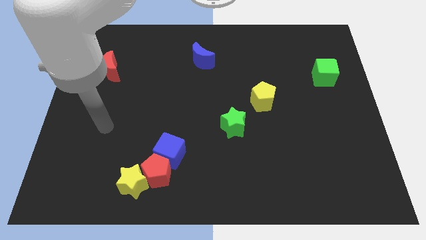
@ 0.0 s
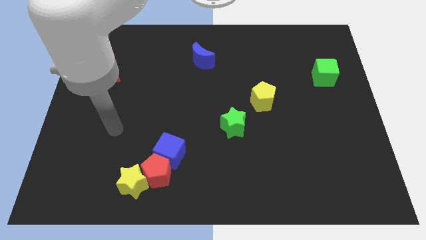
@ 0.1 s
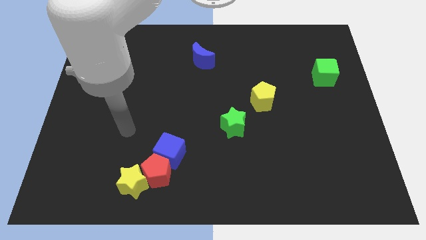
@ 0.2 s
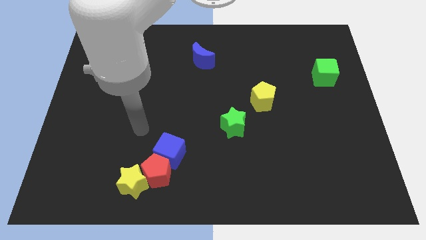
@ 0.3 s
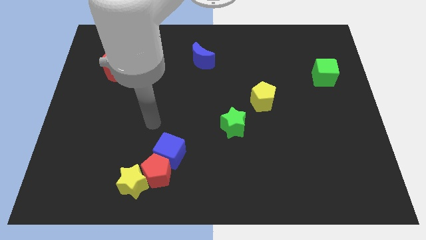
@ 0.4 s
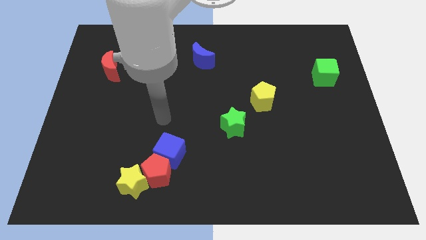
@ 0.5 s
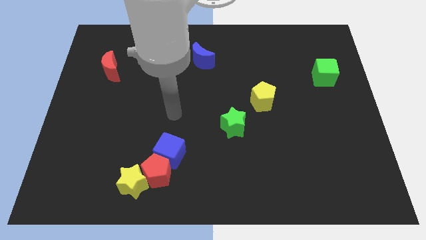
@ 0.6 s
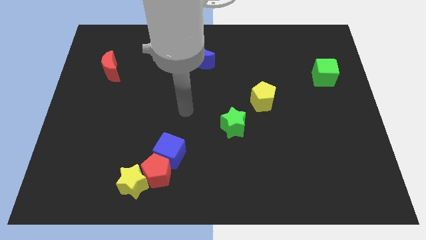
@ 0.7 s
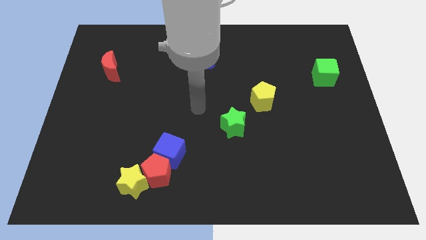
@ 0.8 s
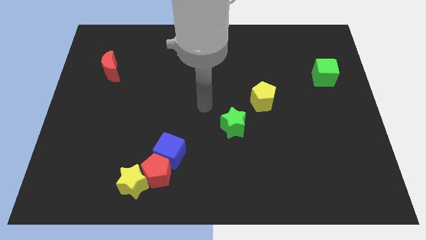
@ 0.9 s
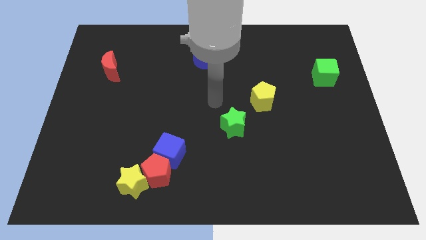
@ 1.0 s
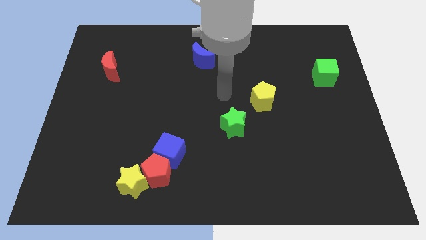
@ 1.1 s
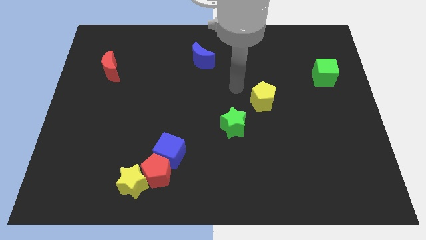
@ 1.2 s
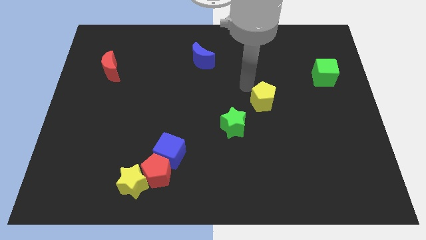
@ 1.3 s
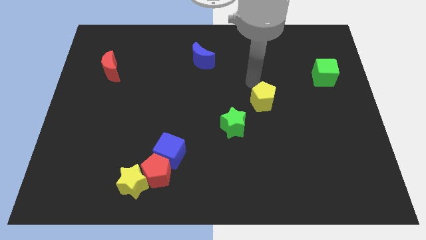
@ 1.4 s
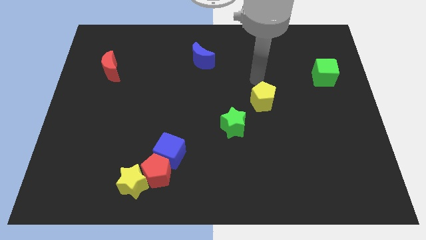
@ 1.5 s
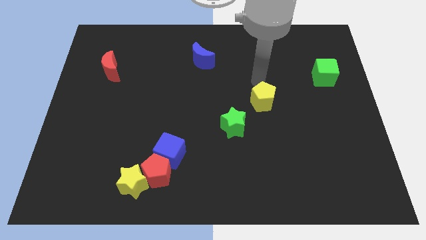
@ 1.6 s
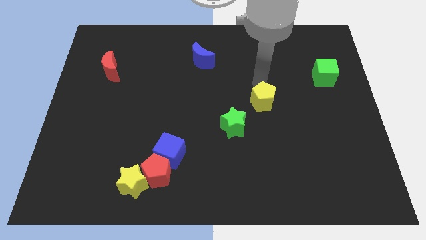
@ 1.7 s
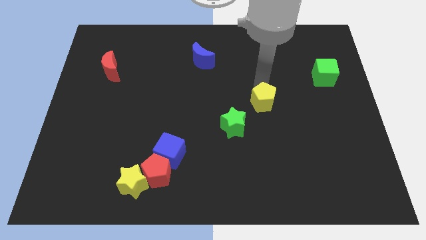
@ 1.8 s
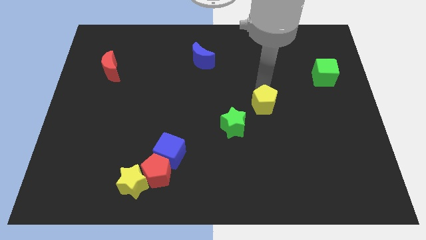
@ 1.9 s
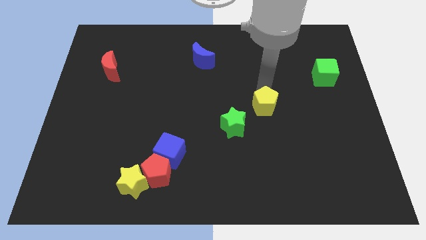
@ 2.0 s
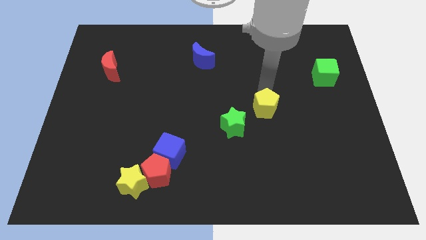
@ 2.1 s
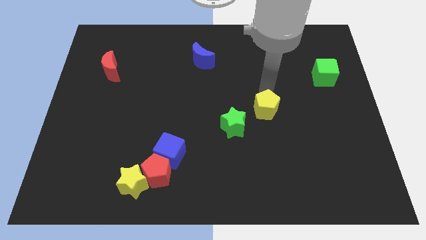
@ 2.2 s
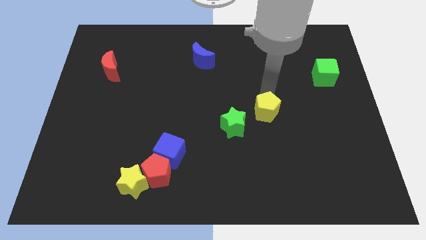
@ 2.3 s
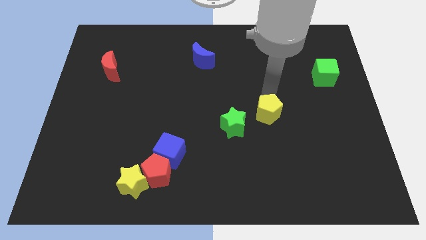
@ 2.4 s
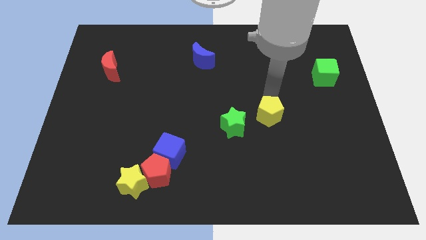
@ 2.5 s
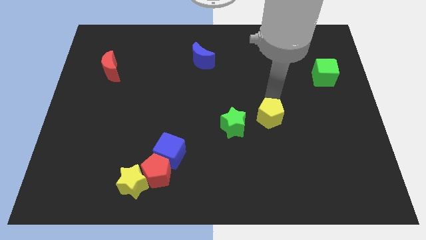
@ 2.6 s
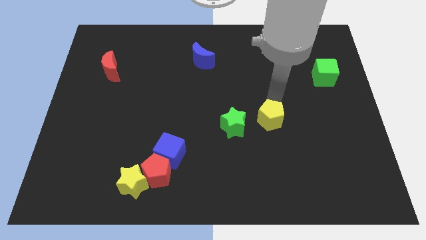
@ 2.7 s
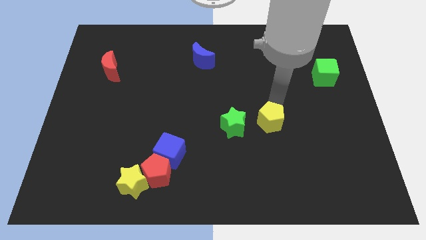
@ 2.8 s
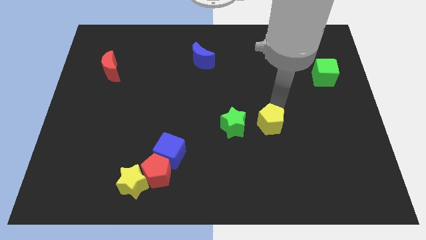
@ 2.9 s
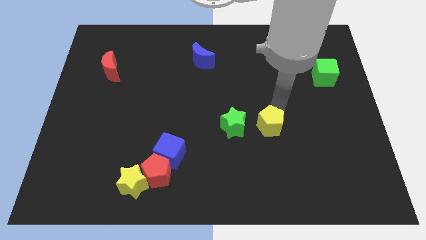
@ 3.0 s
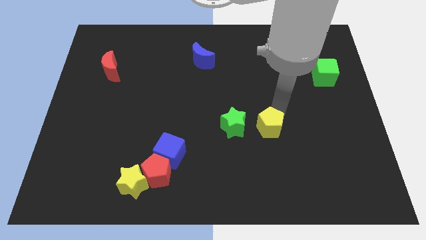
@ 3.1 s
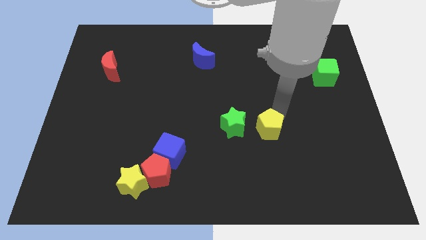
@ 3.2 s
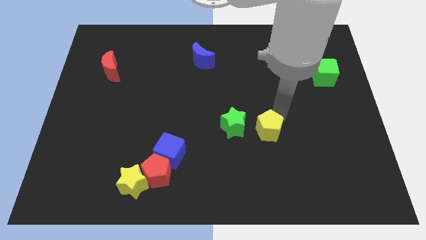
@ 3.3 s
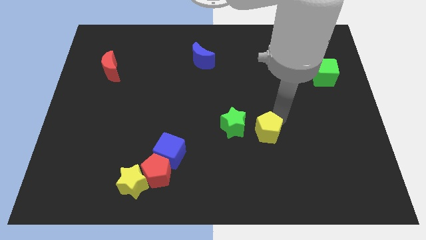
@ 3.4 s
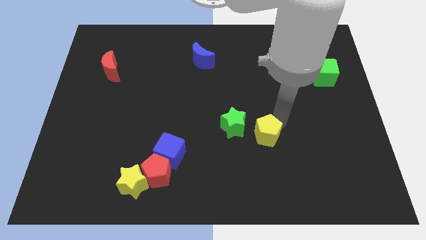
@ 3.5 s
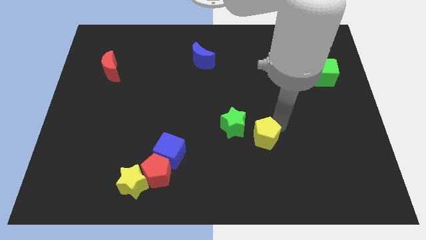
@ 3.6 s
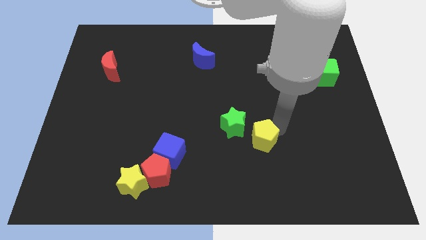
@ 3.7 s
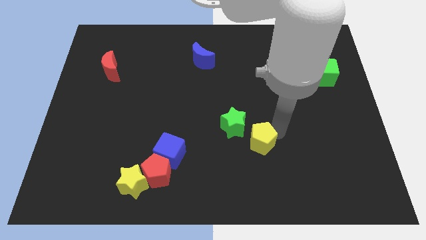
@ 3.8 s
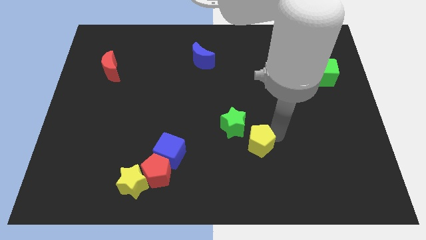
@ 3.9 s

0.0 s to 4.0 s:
slightly push the yellow pentagon down and left

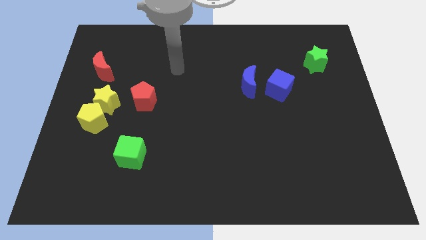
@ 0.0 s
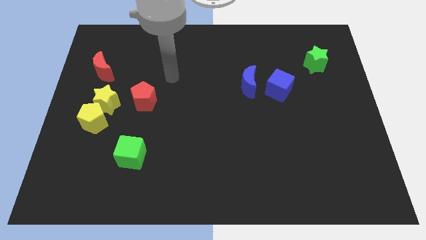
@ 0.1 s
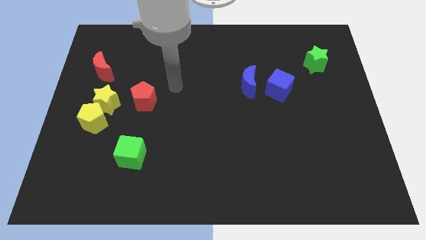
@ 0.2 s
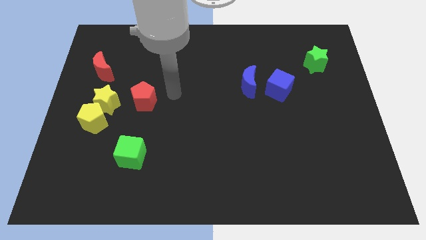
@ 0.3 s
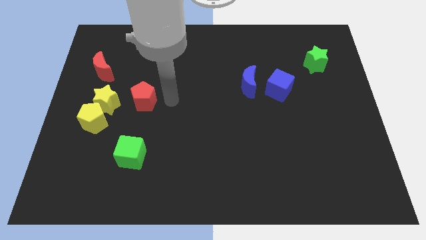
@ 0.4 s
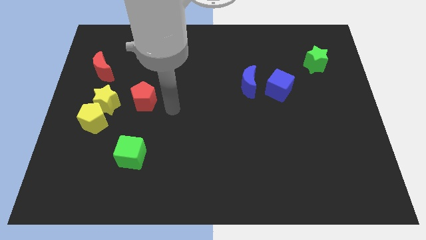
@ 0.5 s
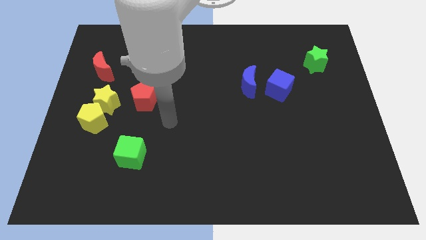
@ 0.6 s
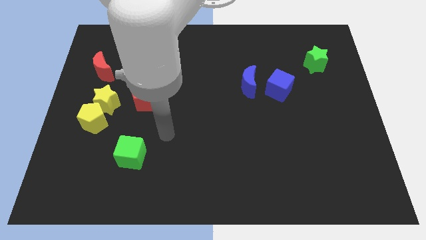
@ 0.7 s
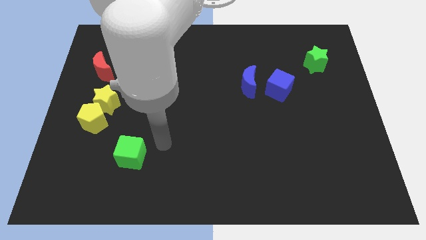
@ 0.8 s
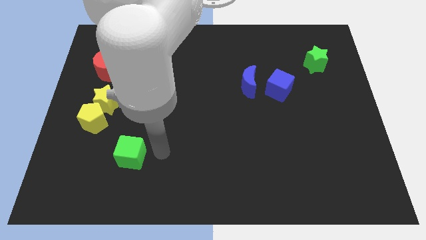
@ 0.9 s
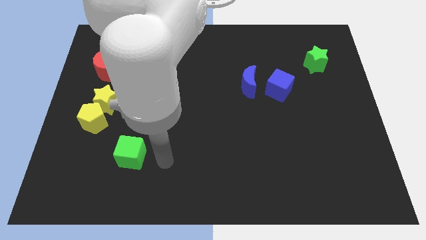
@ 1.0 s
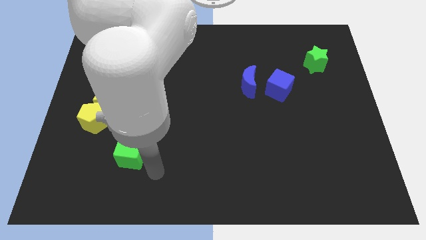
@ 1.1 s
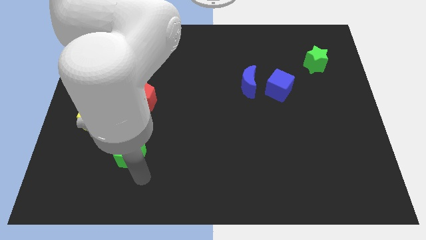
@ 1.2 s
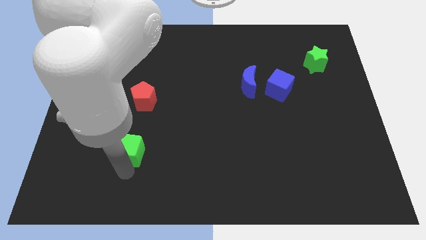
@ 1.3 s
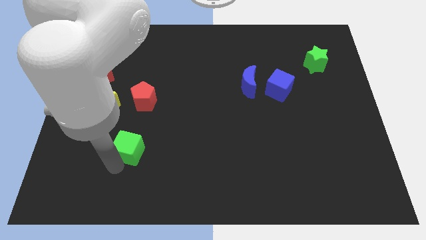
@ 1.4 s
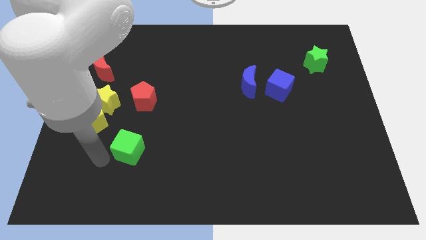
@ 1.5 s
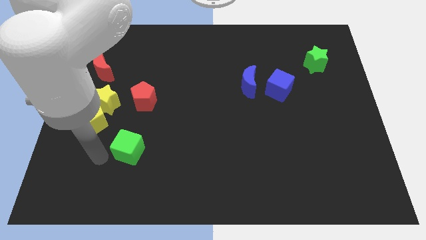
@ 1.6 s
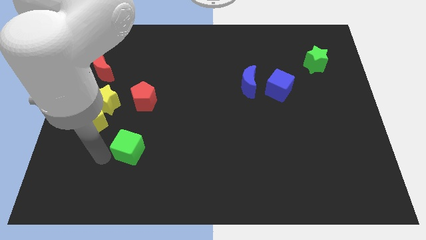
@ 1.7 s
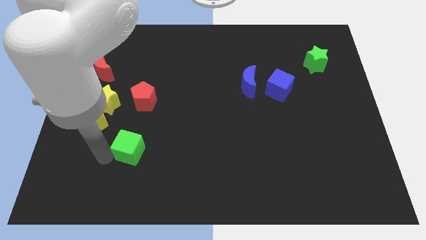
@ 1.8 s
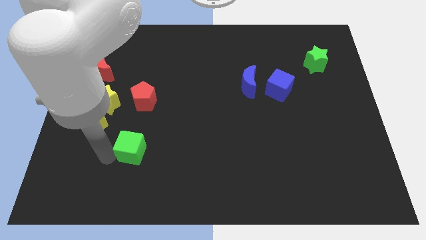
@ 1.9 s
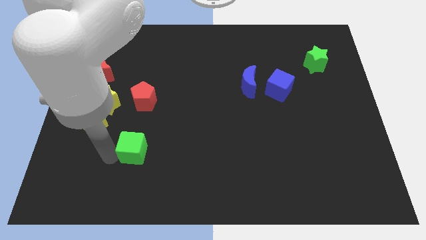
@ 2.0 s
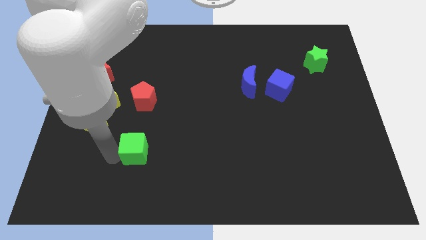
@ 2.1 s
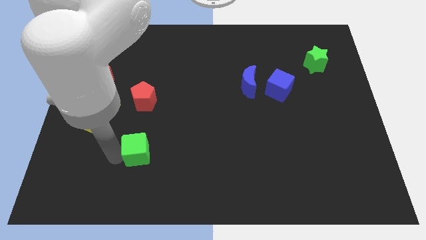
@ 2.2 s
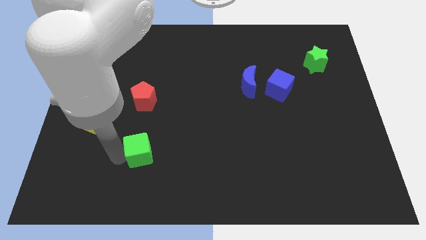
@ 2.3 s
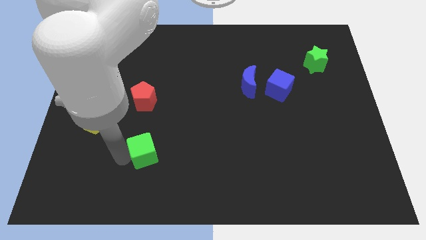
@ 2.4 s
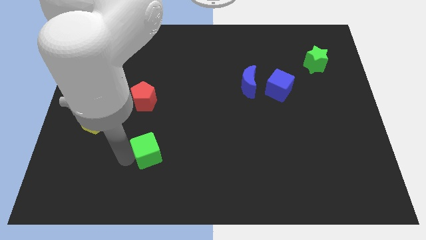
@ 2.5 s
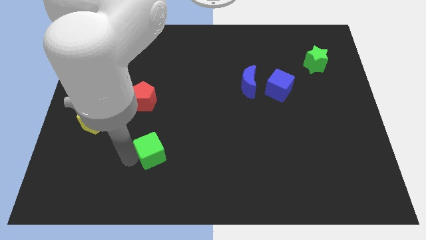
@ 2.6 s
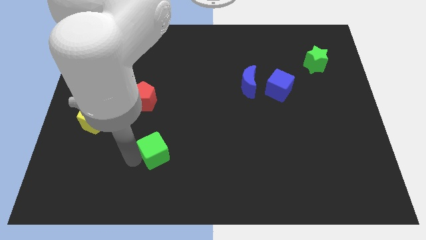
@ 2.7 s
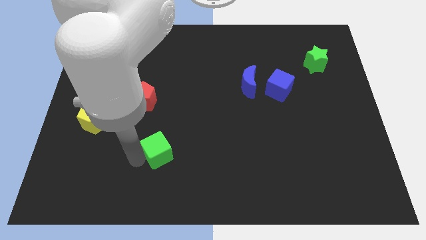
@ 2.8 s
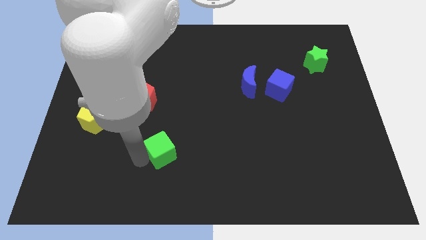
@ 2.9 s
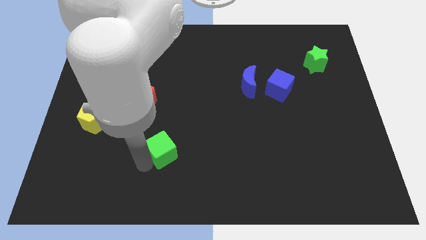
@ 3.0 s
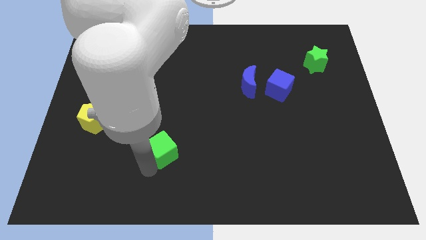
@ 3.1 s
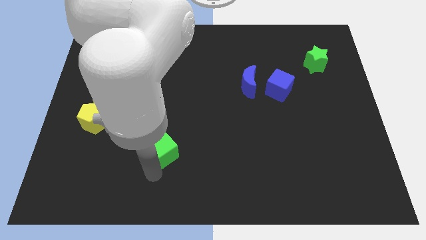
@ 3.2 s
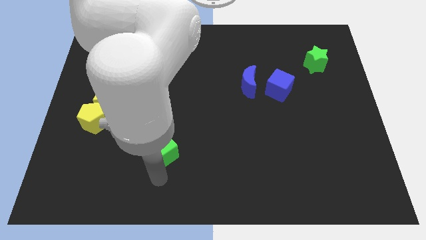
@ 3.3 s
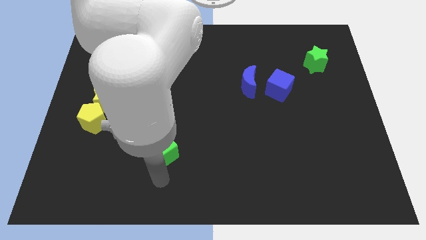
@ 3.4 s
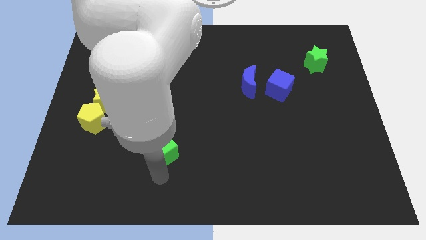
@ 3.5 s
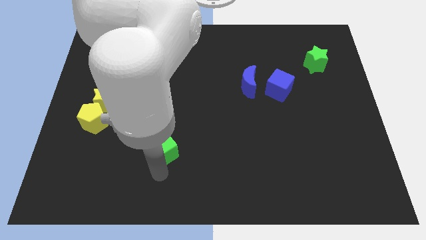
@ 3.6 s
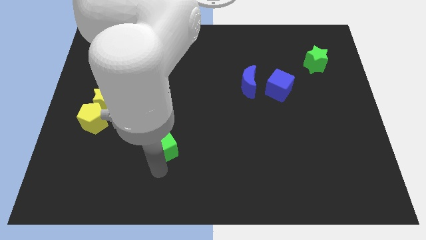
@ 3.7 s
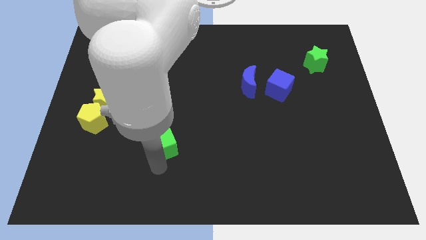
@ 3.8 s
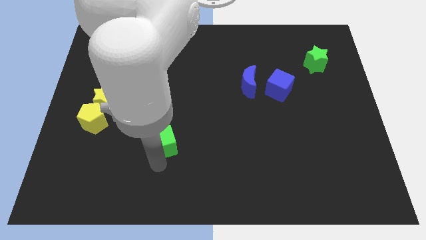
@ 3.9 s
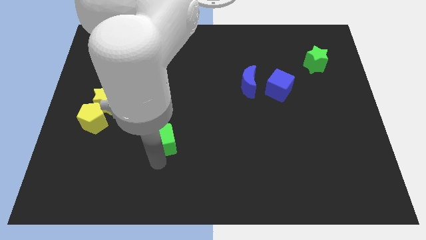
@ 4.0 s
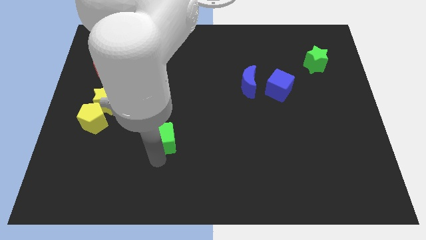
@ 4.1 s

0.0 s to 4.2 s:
slightly push the green cube up and to the right
